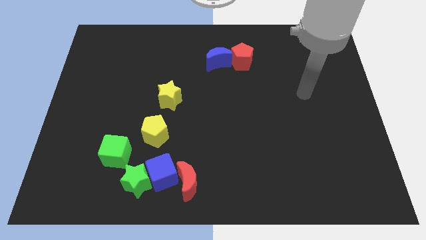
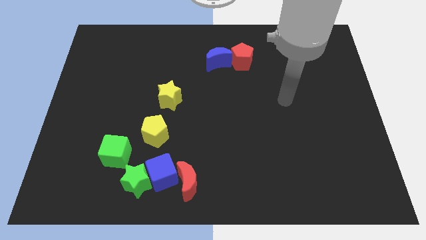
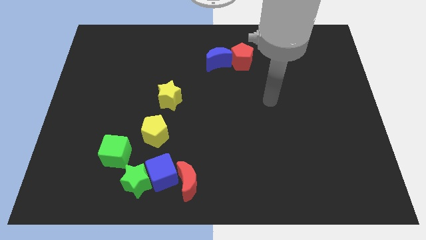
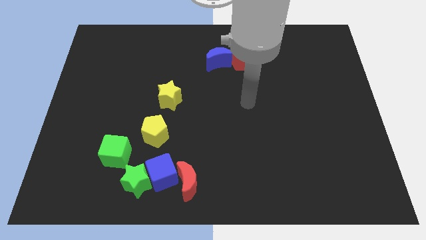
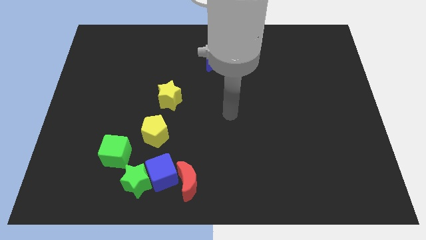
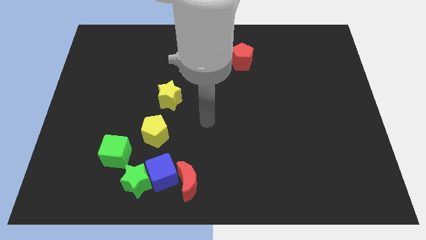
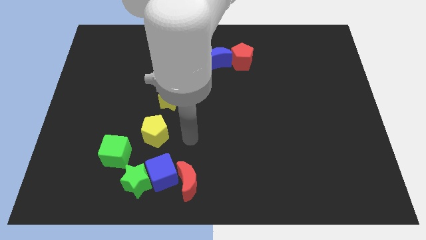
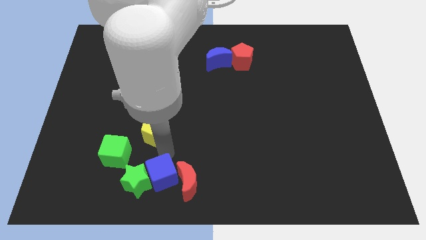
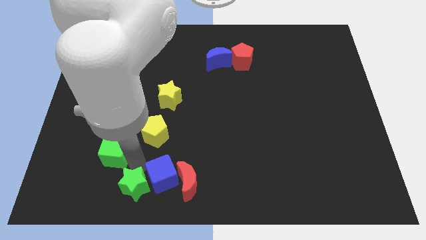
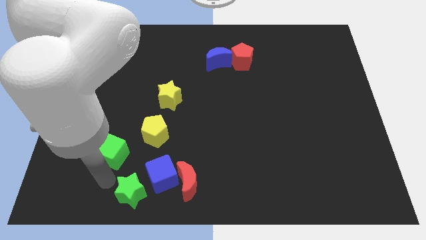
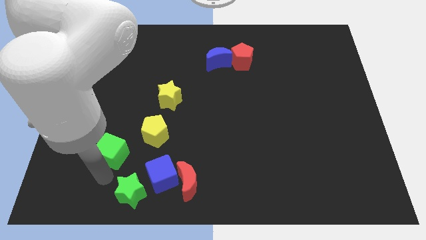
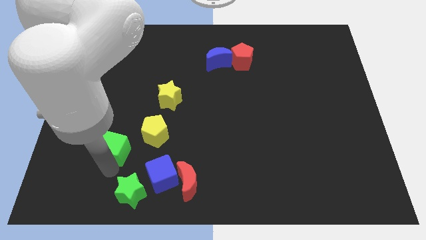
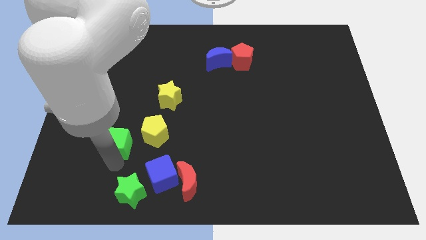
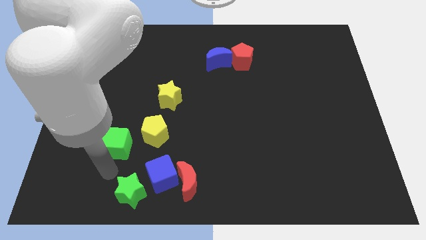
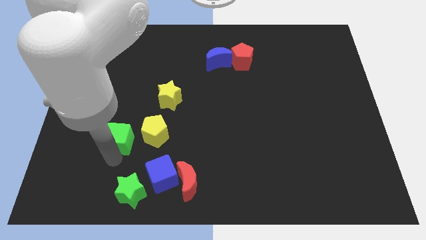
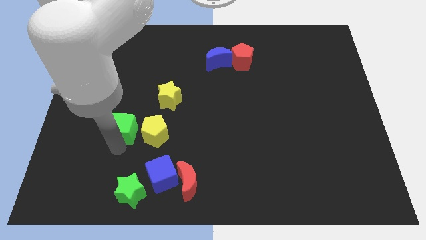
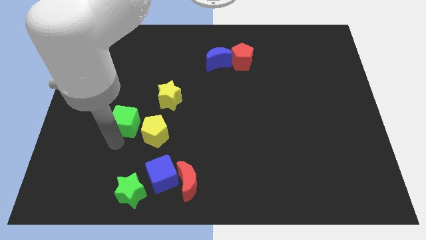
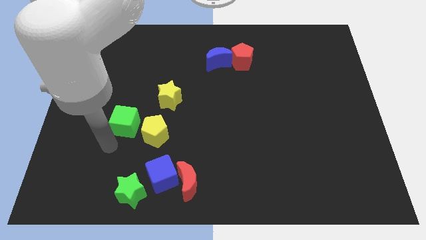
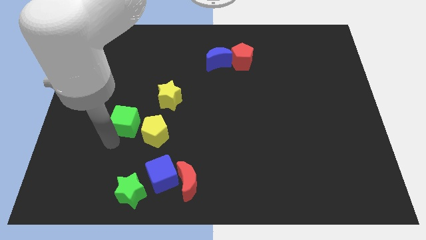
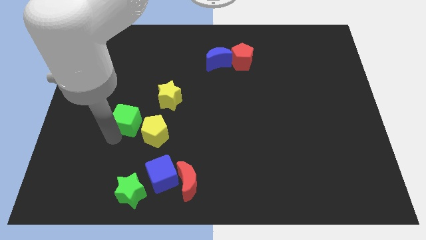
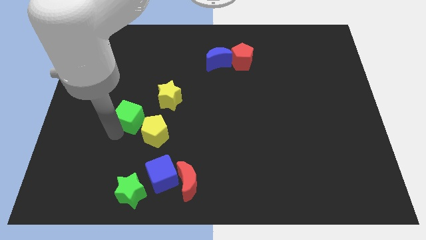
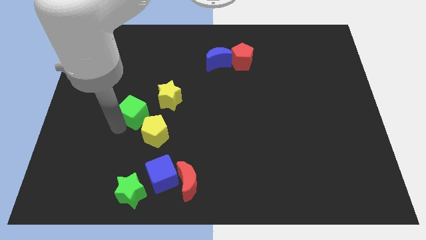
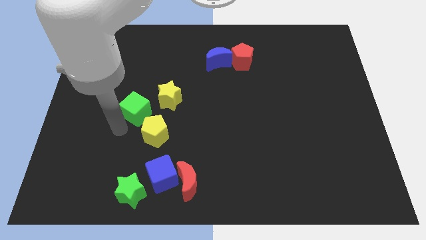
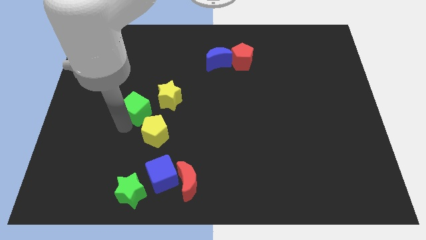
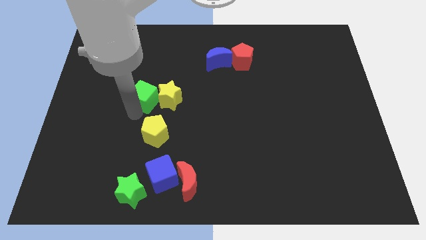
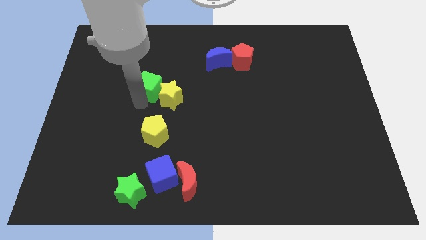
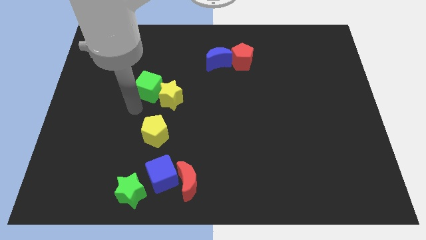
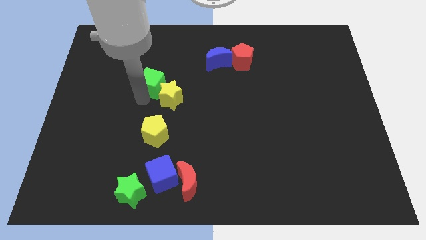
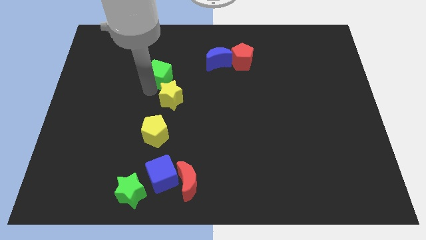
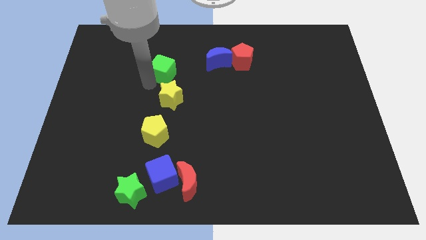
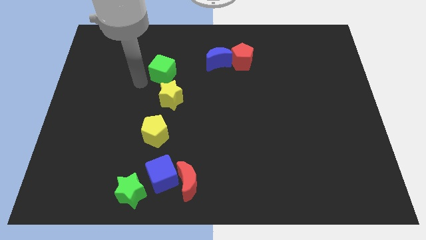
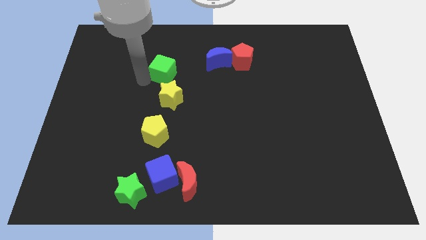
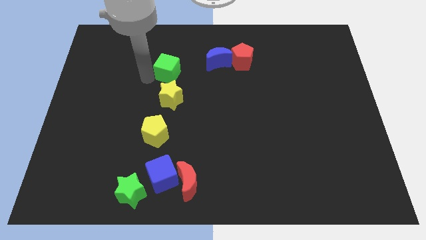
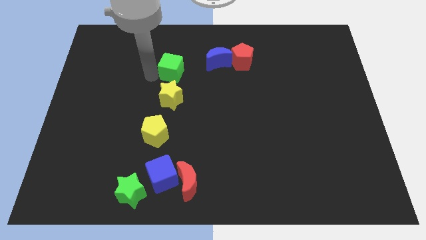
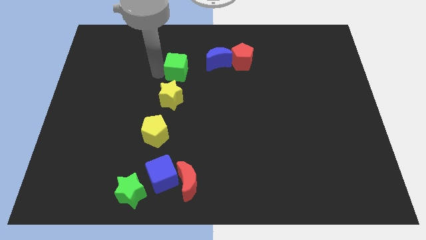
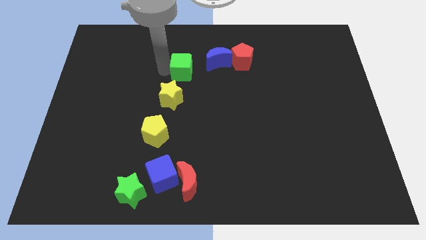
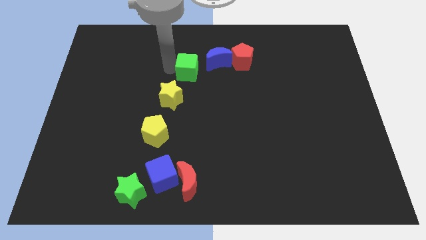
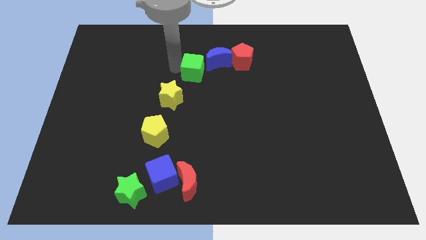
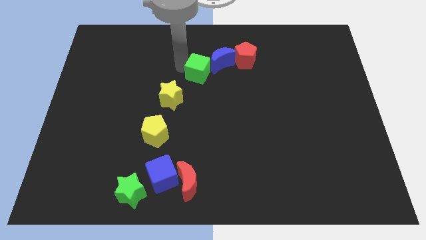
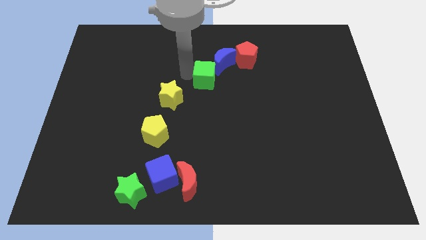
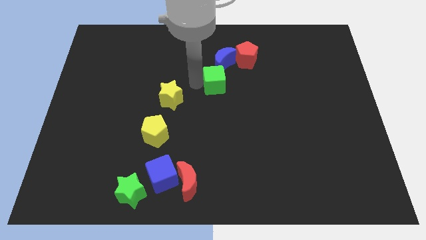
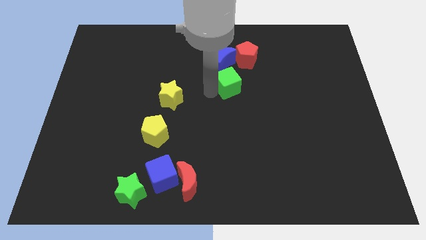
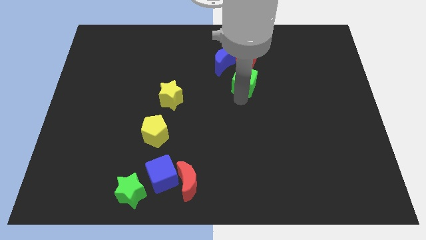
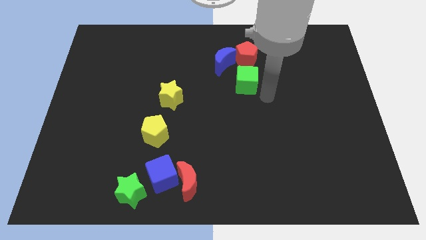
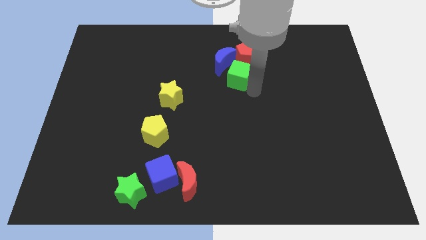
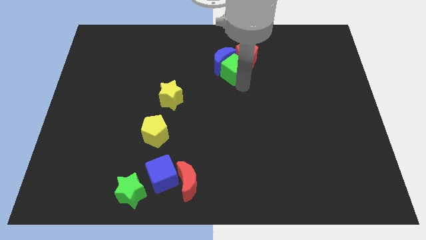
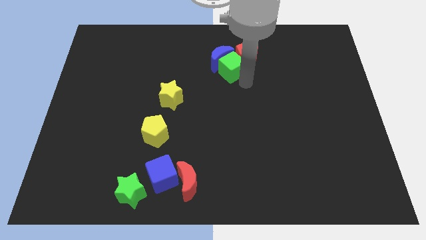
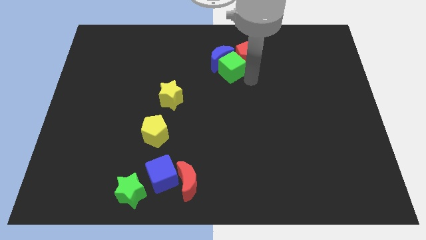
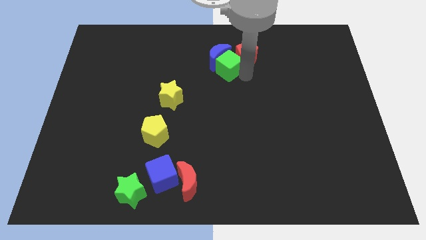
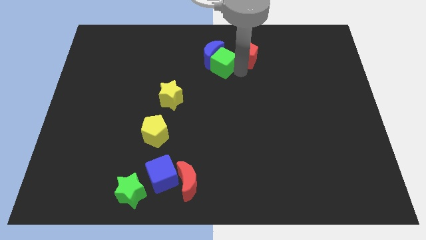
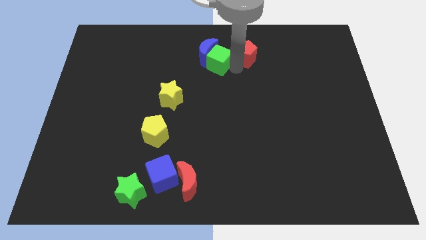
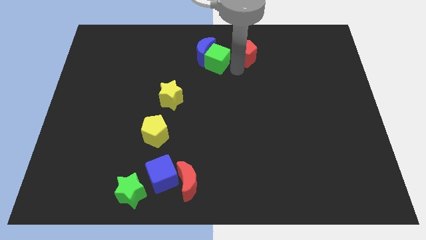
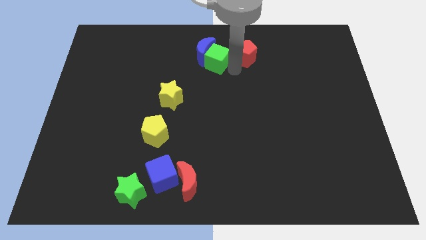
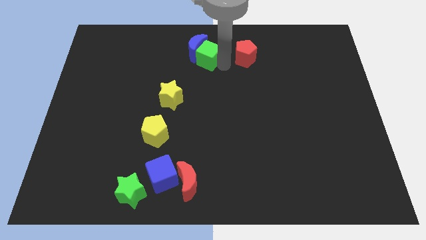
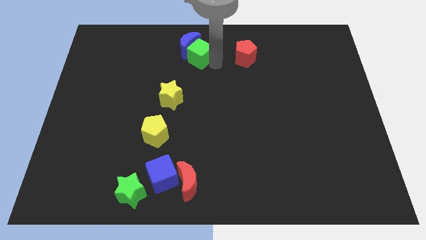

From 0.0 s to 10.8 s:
move the green cube to the top

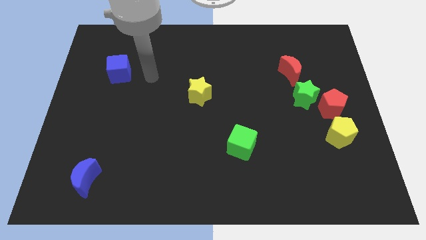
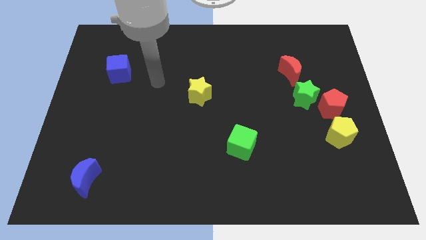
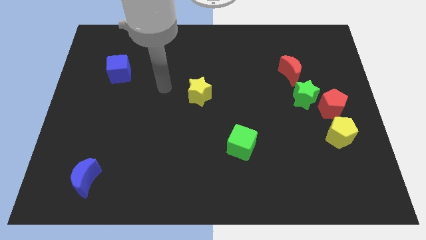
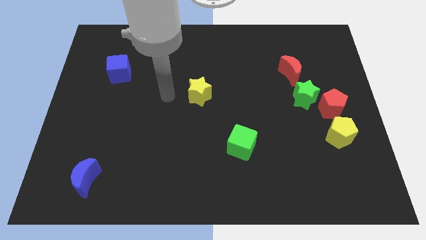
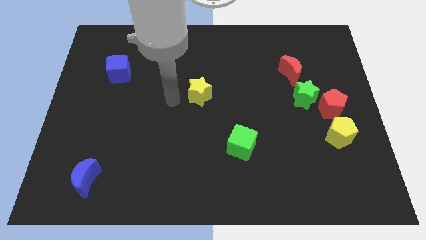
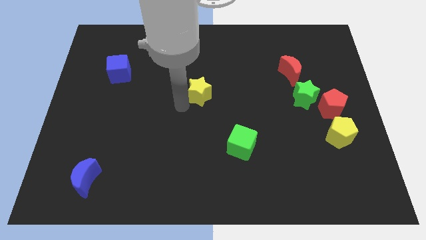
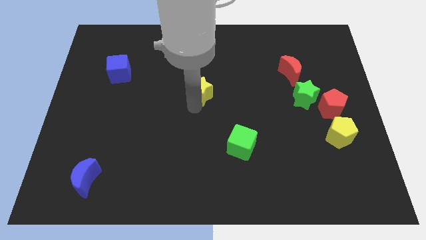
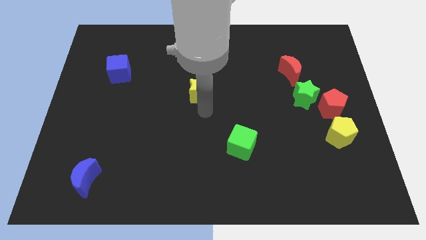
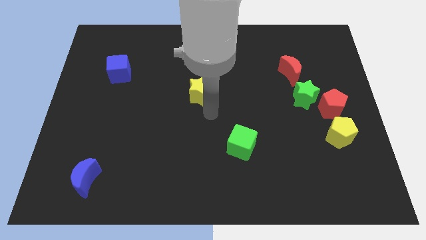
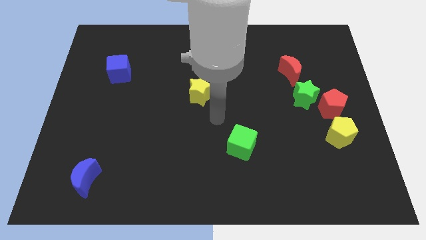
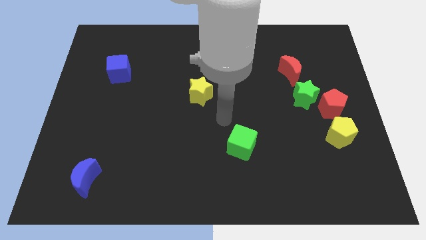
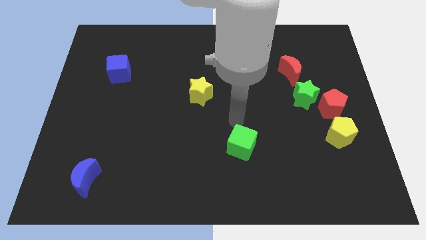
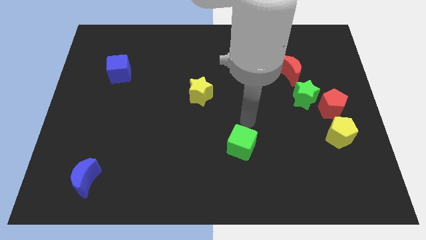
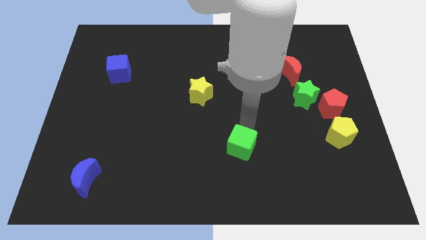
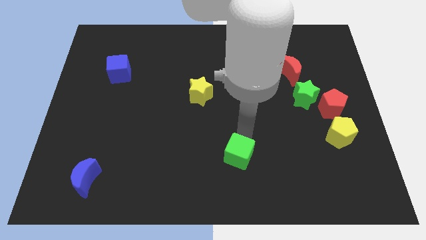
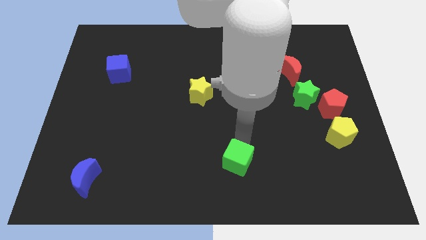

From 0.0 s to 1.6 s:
push the green cube to the bottom side
